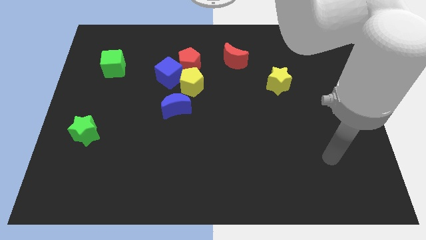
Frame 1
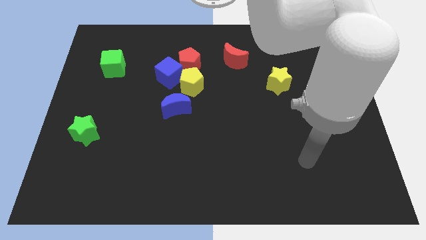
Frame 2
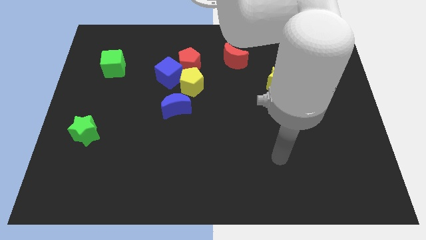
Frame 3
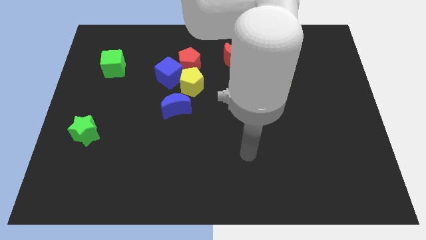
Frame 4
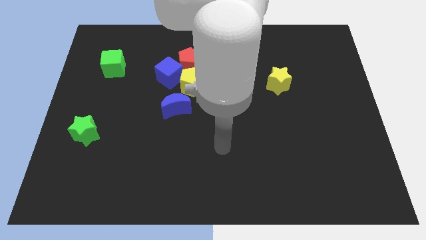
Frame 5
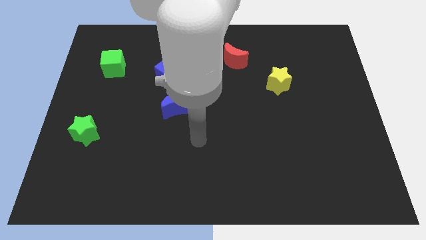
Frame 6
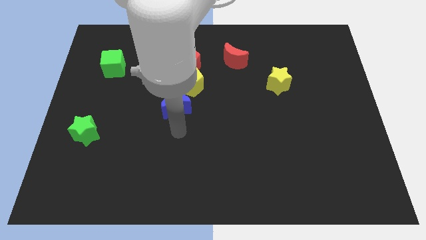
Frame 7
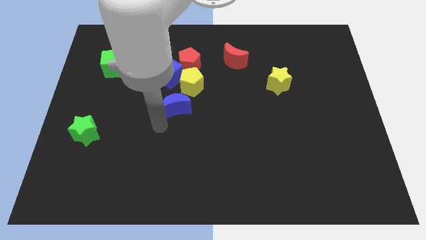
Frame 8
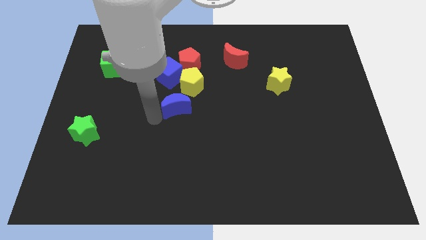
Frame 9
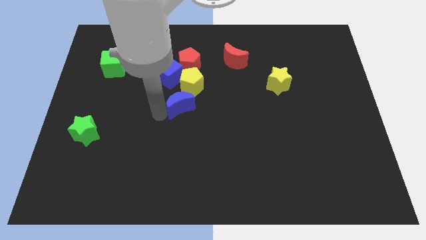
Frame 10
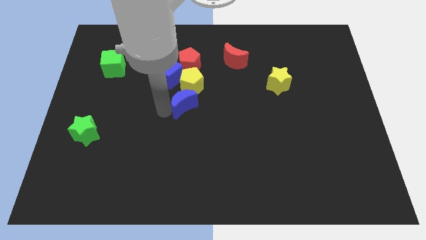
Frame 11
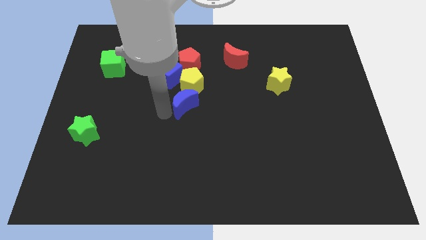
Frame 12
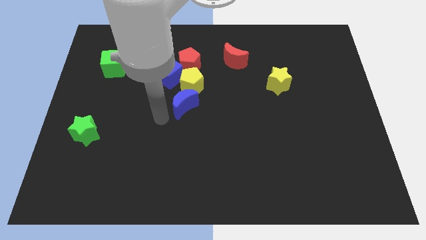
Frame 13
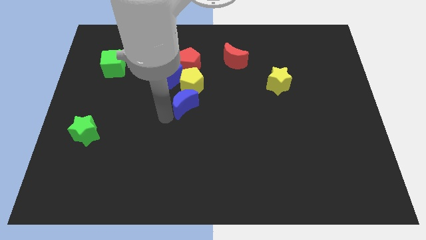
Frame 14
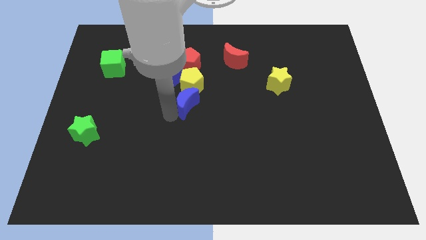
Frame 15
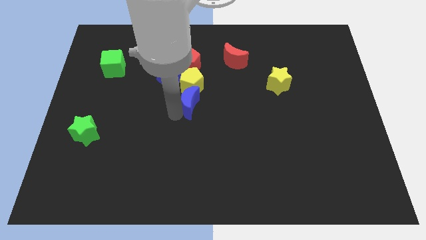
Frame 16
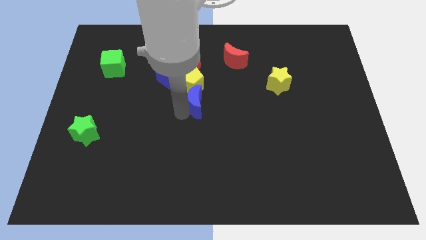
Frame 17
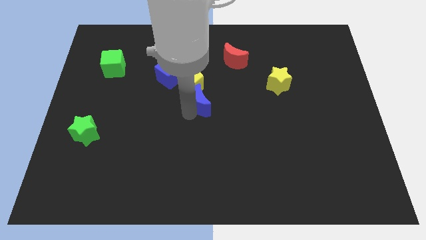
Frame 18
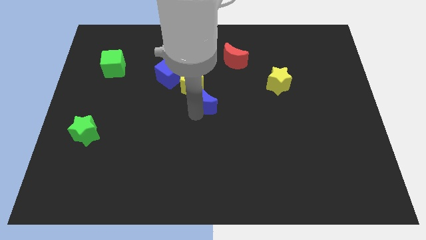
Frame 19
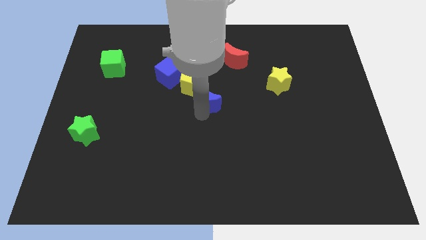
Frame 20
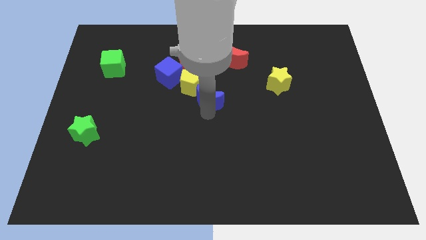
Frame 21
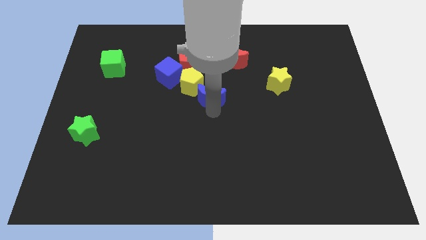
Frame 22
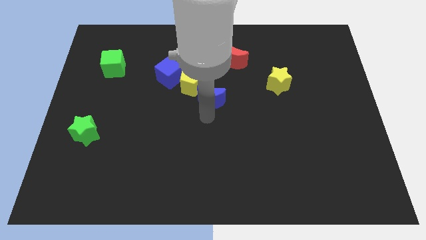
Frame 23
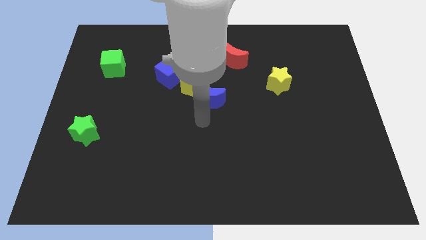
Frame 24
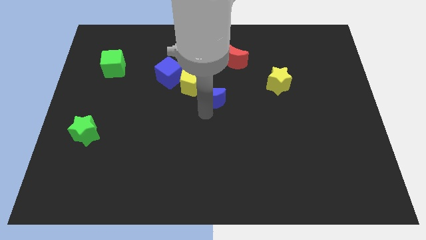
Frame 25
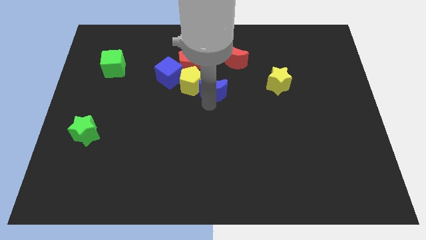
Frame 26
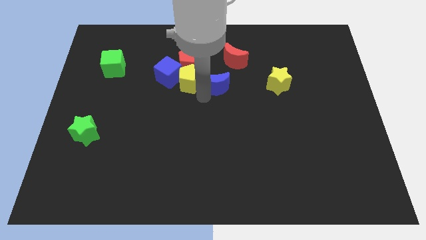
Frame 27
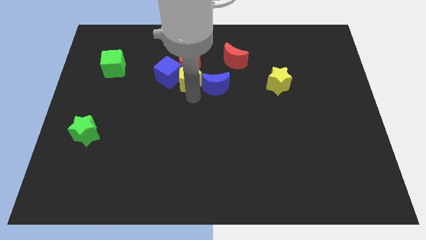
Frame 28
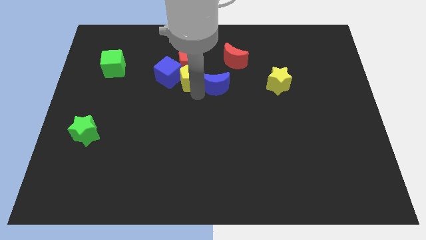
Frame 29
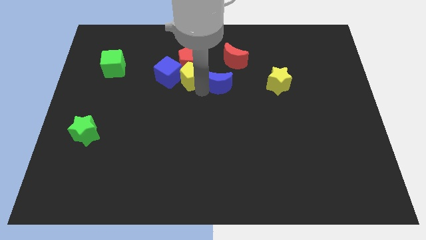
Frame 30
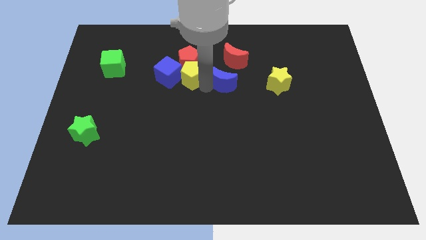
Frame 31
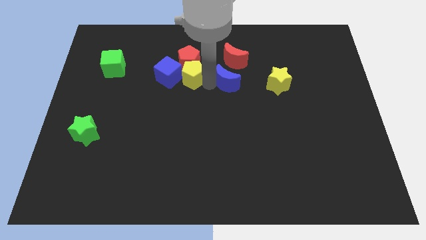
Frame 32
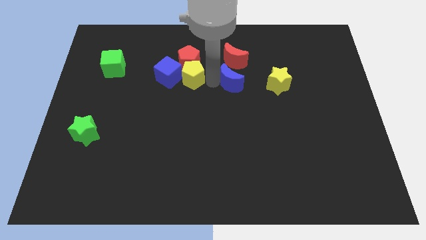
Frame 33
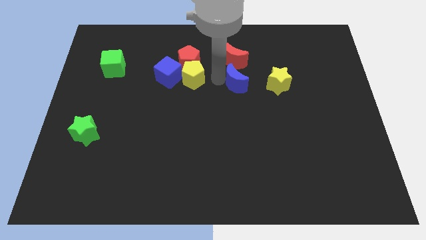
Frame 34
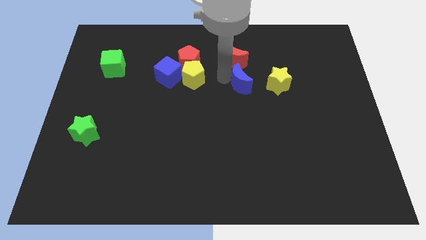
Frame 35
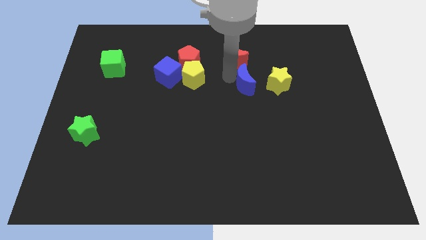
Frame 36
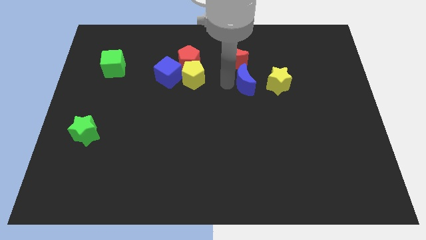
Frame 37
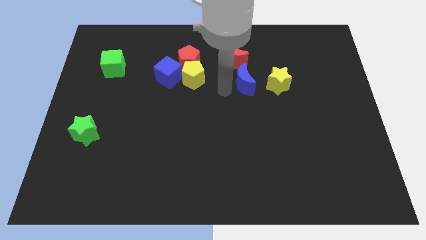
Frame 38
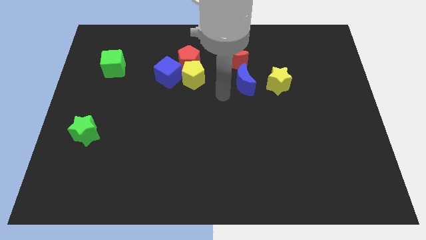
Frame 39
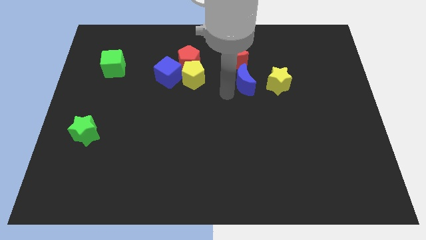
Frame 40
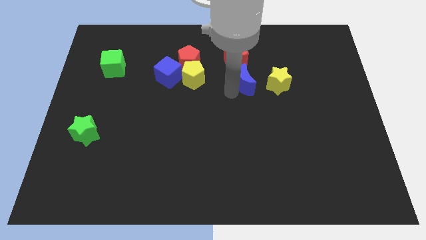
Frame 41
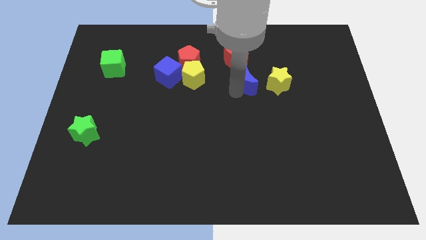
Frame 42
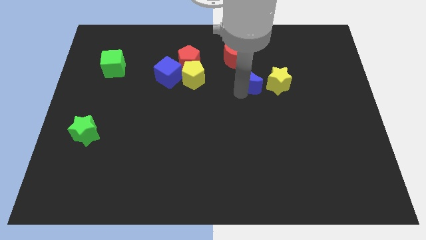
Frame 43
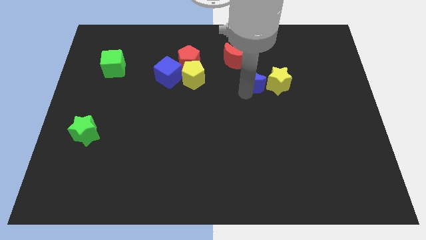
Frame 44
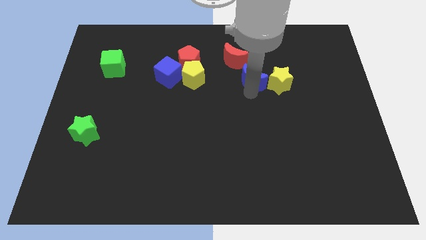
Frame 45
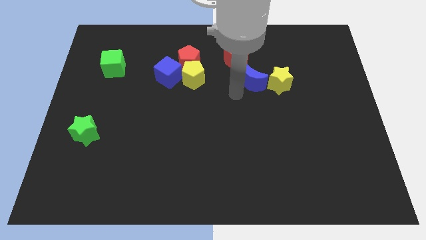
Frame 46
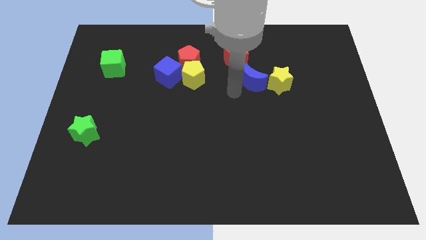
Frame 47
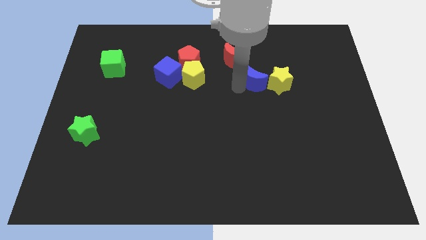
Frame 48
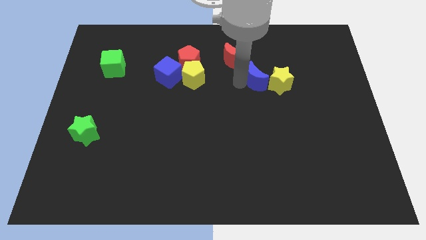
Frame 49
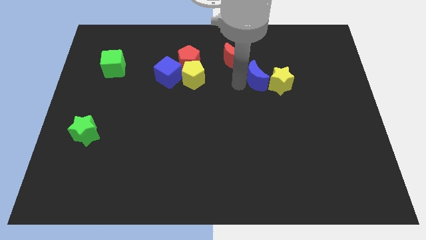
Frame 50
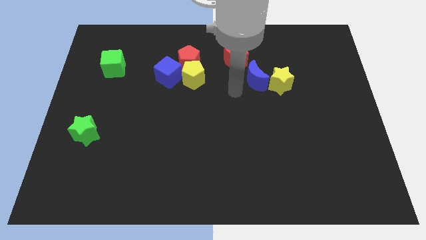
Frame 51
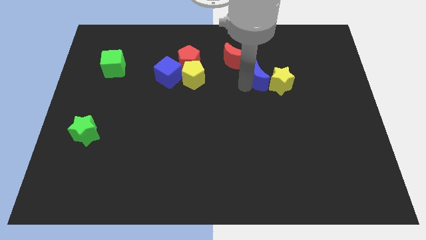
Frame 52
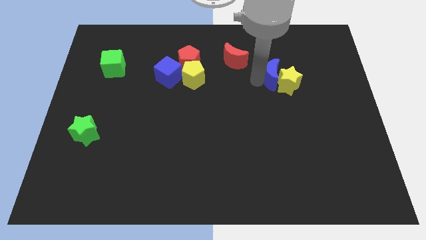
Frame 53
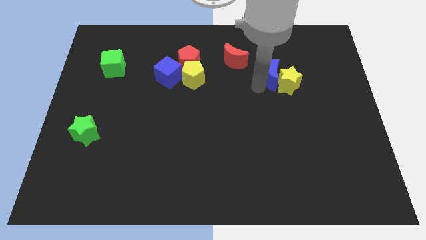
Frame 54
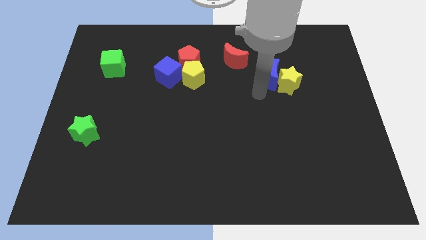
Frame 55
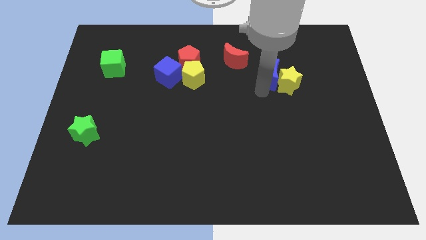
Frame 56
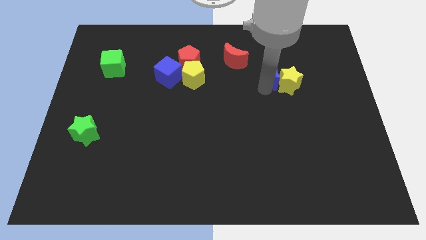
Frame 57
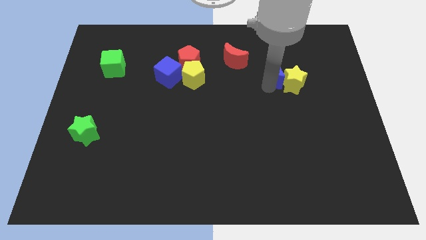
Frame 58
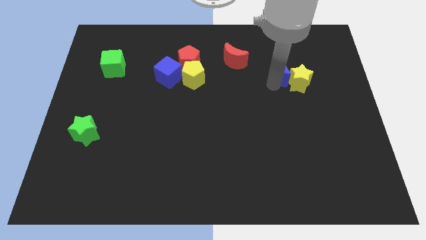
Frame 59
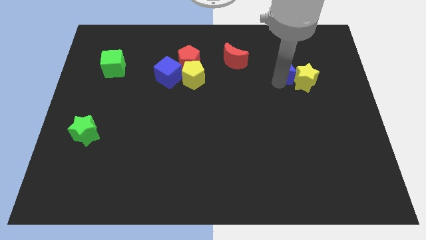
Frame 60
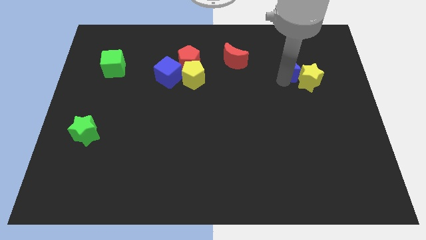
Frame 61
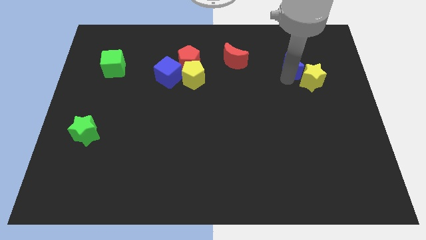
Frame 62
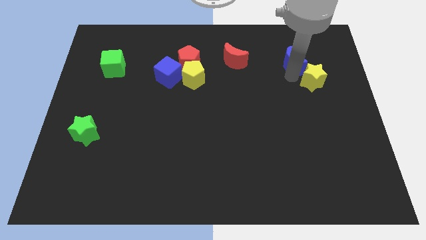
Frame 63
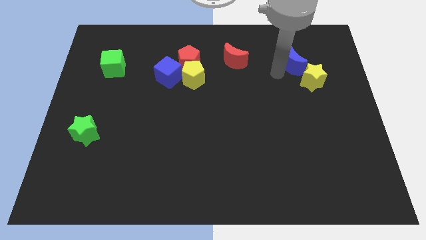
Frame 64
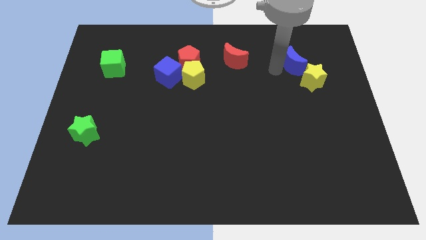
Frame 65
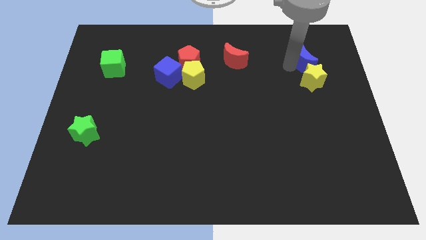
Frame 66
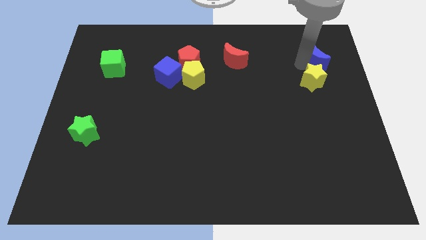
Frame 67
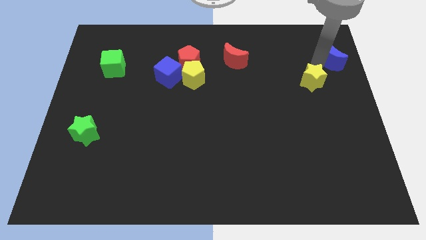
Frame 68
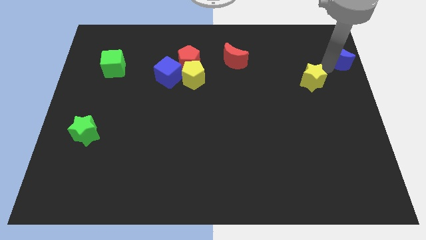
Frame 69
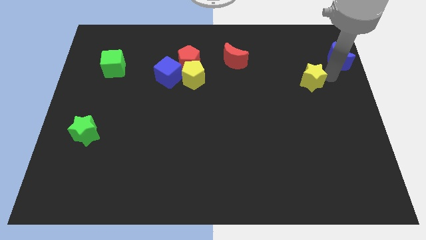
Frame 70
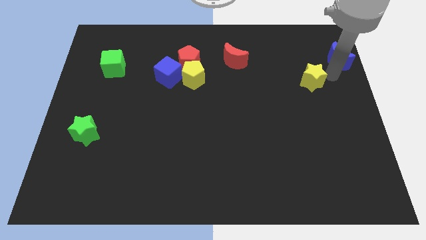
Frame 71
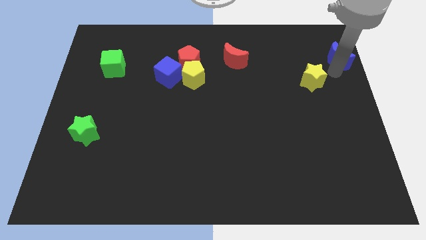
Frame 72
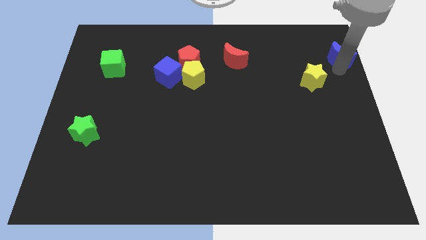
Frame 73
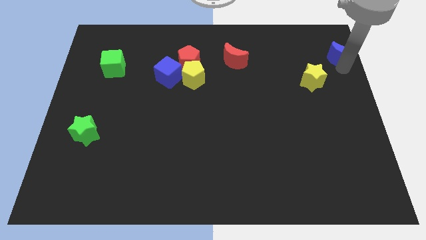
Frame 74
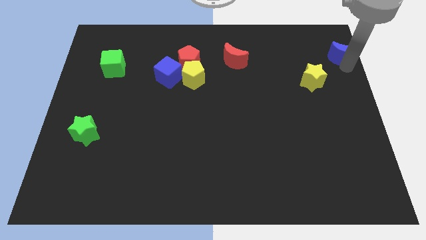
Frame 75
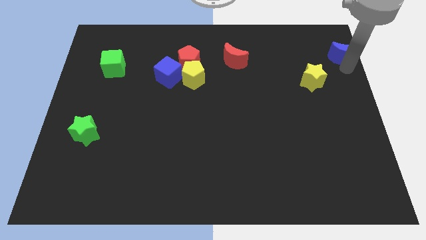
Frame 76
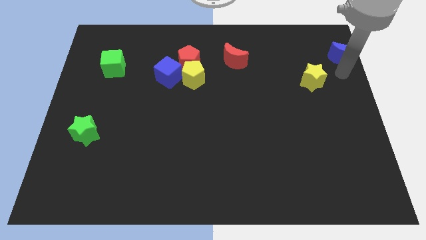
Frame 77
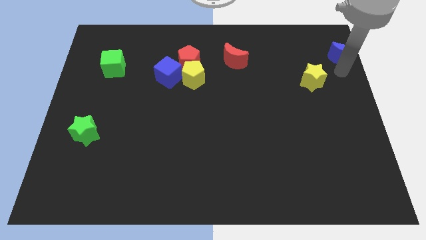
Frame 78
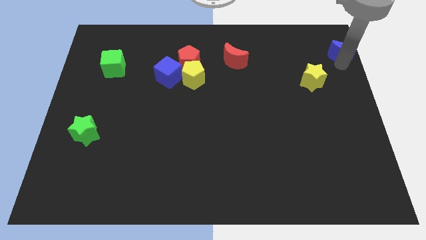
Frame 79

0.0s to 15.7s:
put the blue moon to the top right corner
